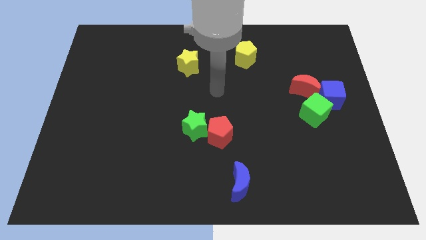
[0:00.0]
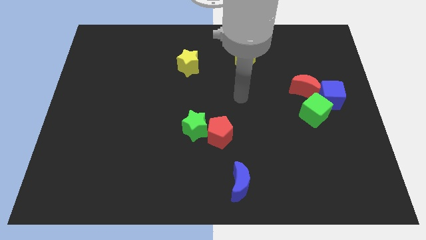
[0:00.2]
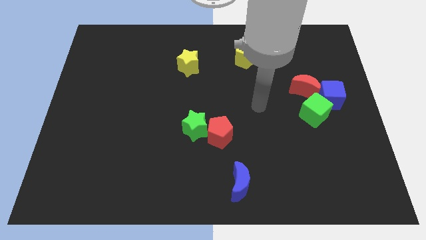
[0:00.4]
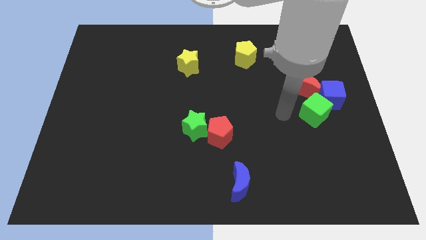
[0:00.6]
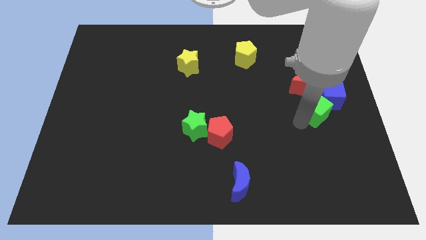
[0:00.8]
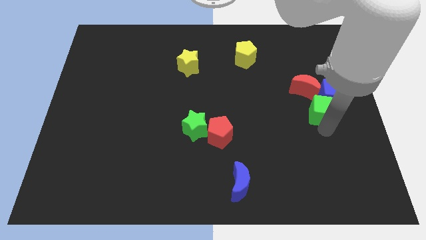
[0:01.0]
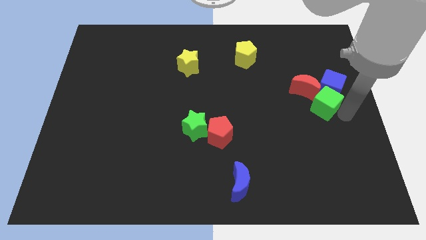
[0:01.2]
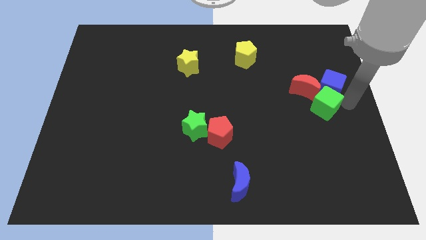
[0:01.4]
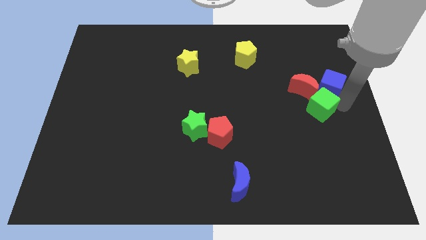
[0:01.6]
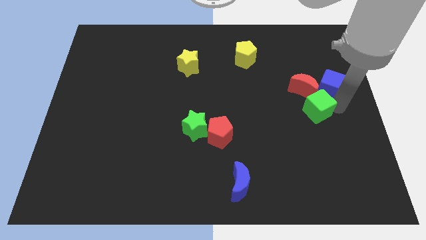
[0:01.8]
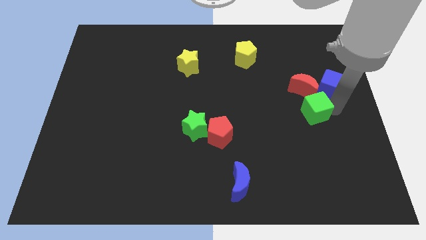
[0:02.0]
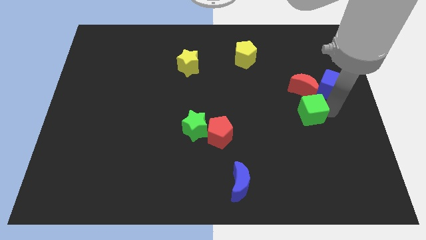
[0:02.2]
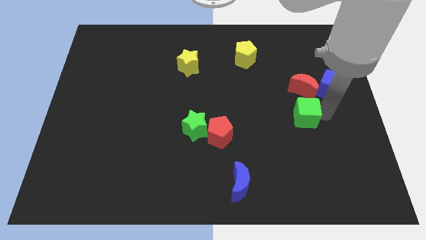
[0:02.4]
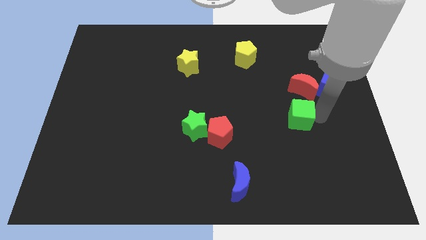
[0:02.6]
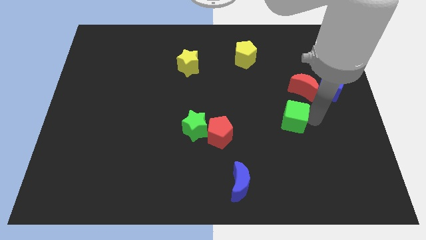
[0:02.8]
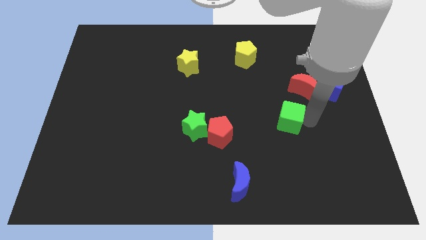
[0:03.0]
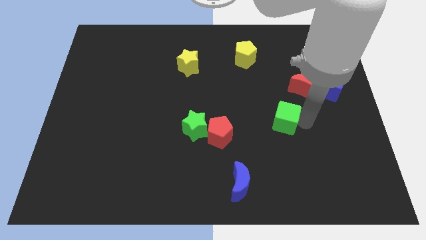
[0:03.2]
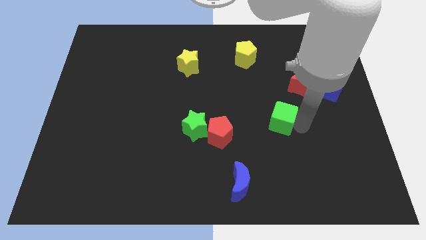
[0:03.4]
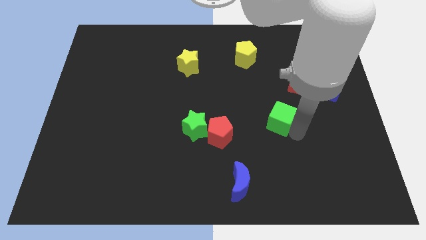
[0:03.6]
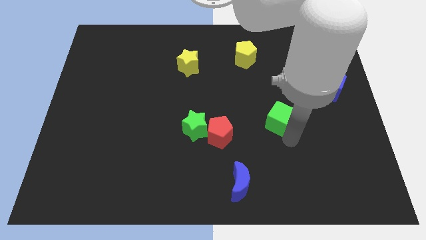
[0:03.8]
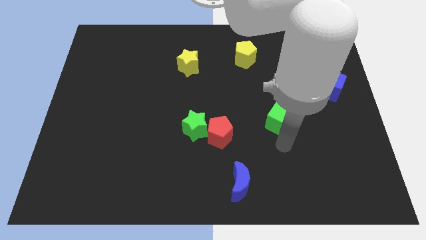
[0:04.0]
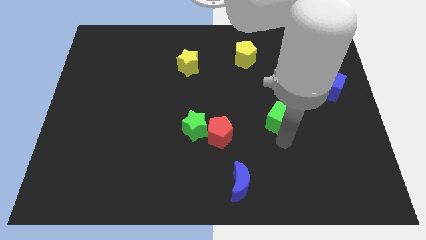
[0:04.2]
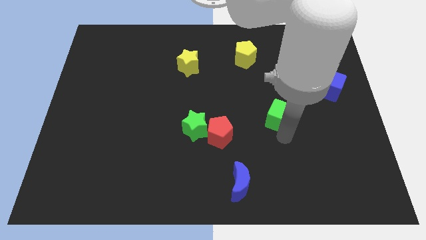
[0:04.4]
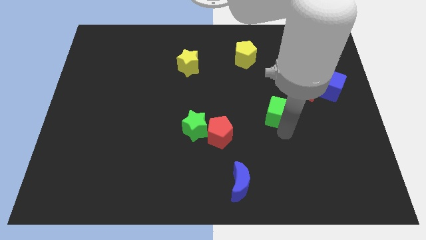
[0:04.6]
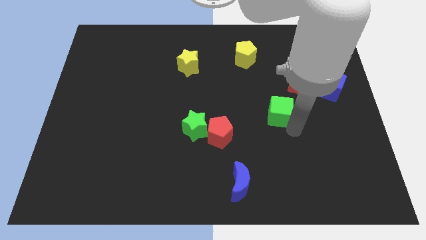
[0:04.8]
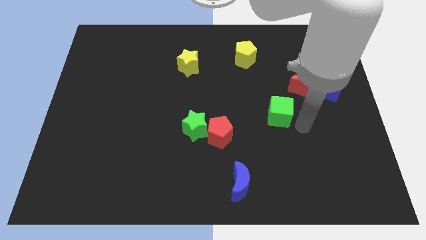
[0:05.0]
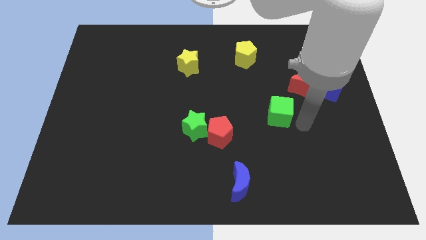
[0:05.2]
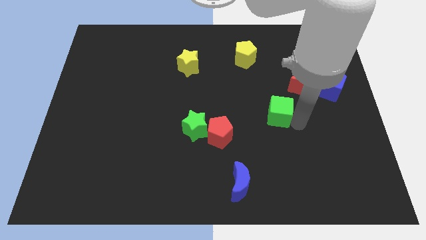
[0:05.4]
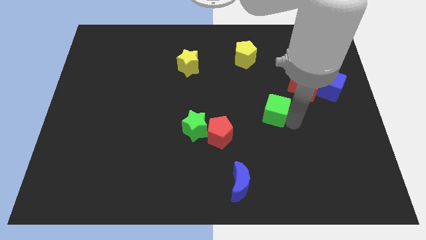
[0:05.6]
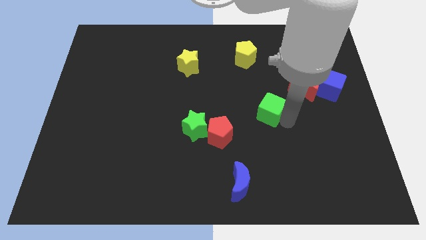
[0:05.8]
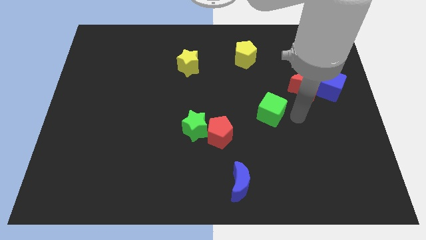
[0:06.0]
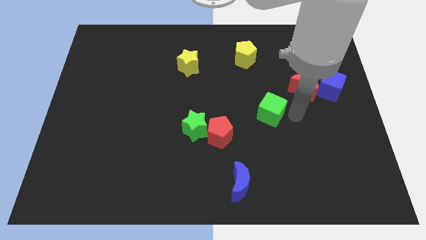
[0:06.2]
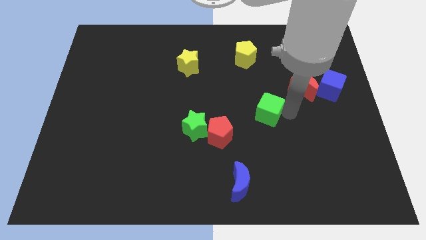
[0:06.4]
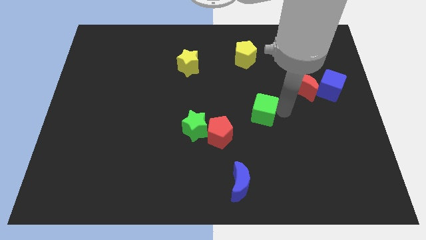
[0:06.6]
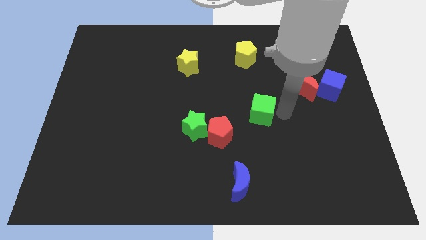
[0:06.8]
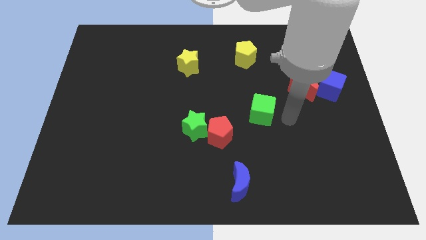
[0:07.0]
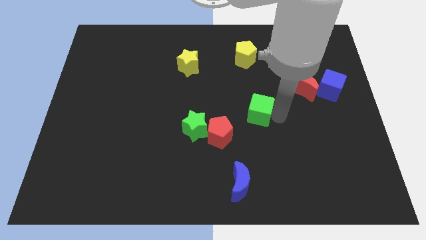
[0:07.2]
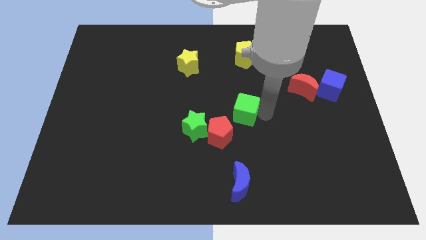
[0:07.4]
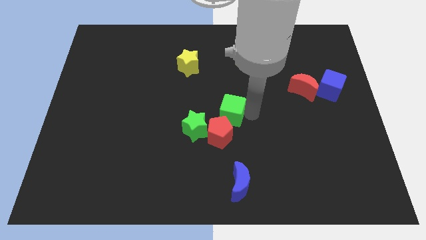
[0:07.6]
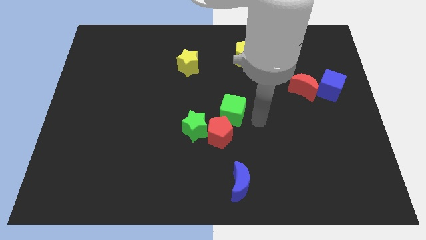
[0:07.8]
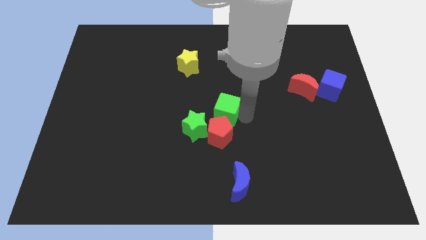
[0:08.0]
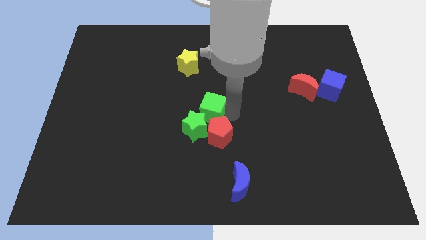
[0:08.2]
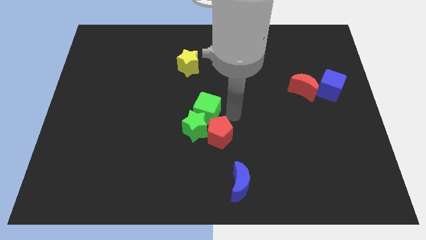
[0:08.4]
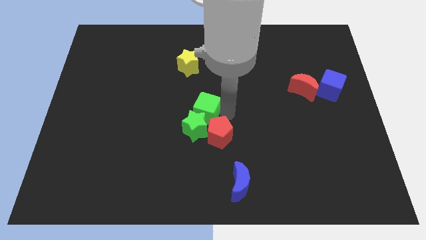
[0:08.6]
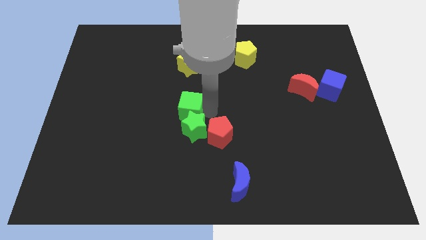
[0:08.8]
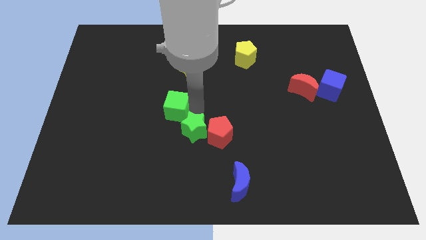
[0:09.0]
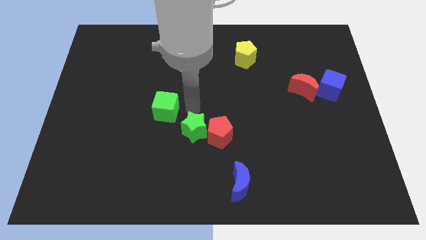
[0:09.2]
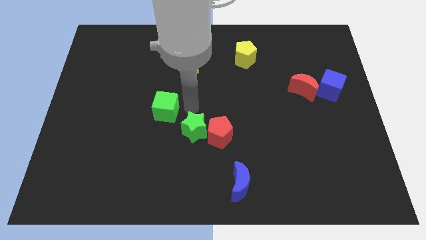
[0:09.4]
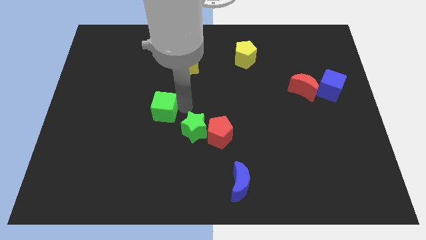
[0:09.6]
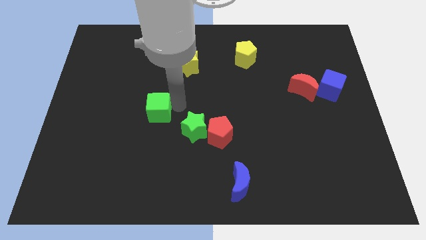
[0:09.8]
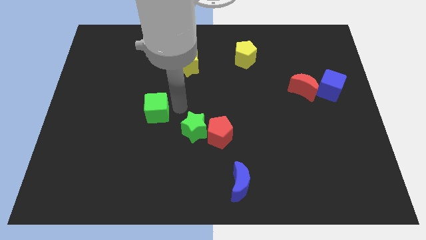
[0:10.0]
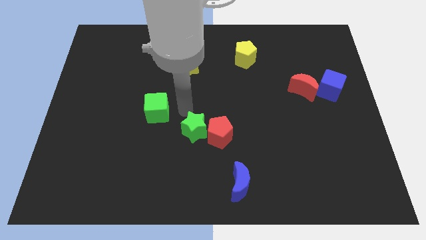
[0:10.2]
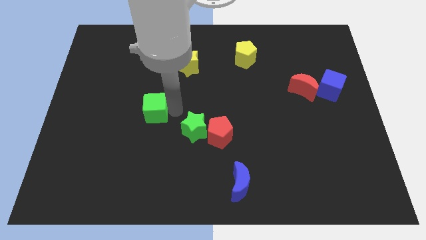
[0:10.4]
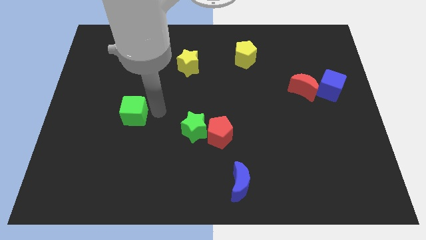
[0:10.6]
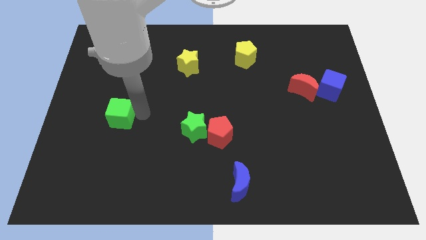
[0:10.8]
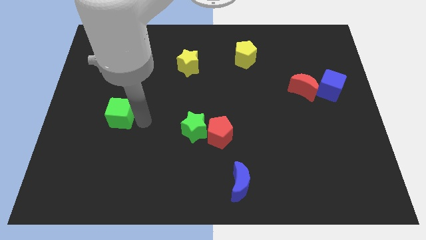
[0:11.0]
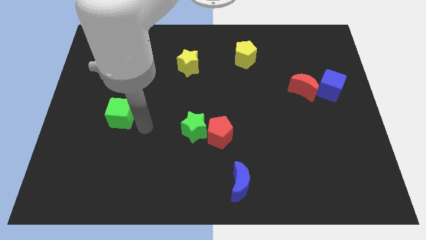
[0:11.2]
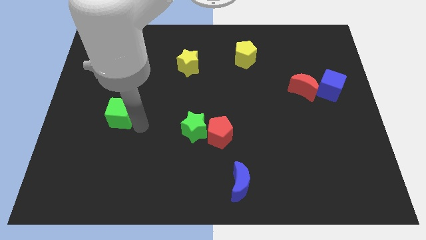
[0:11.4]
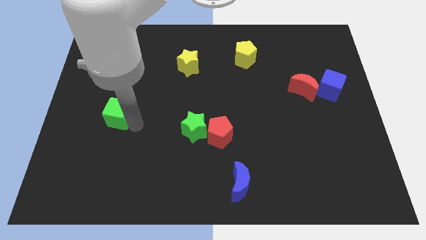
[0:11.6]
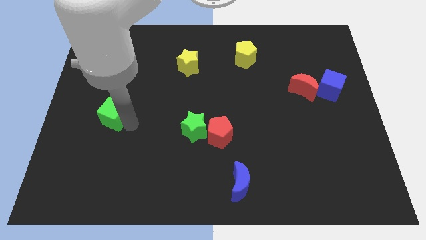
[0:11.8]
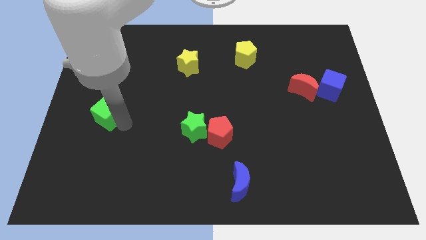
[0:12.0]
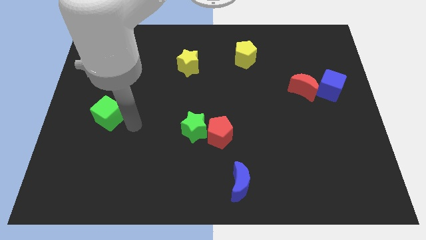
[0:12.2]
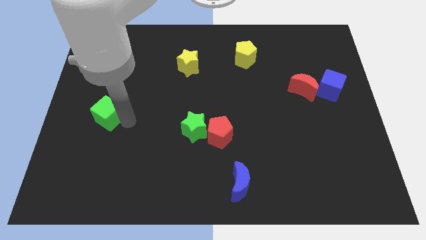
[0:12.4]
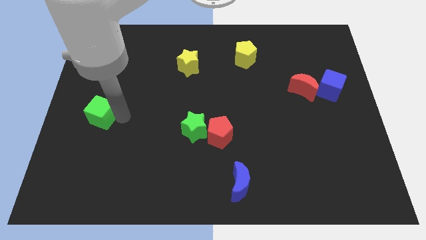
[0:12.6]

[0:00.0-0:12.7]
put the green cube to the center left
